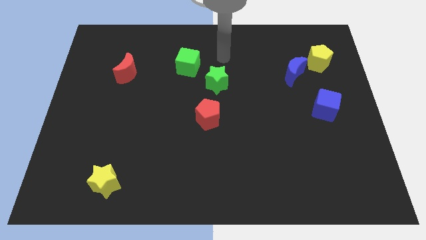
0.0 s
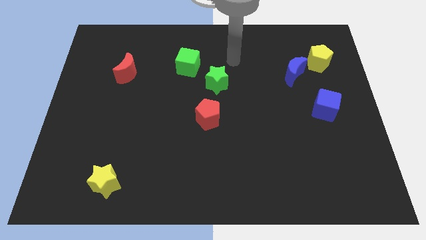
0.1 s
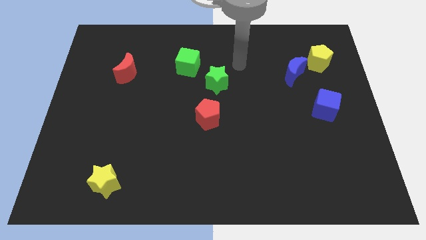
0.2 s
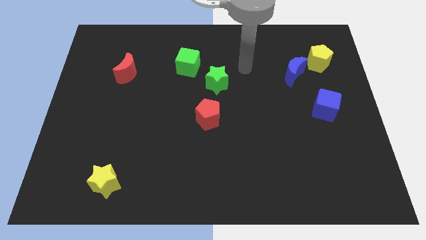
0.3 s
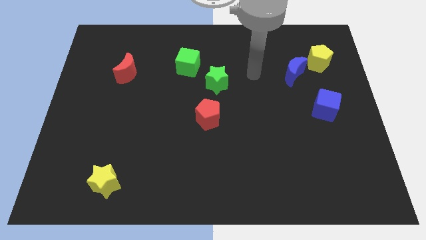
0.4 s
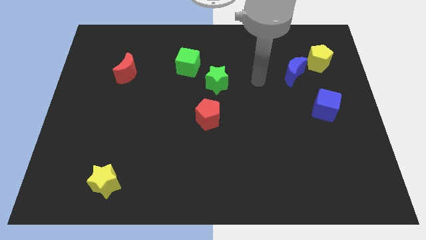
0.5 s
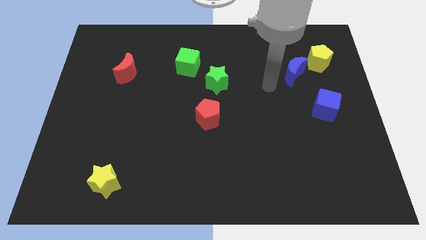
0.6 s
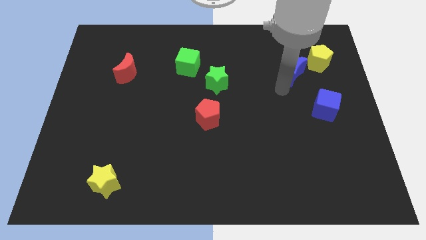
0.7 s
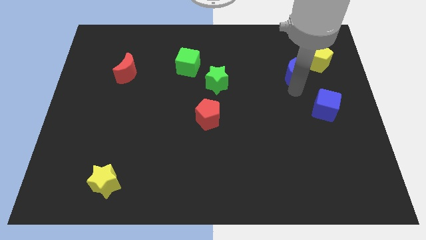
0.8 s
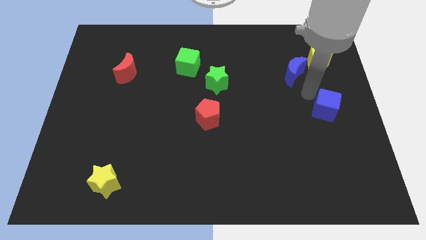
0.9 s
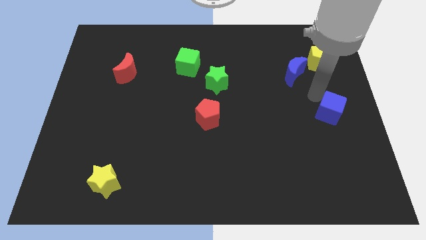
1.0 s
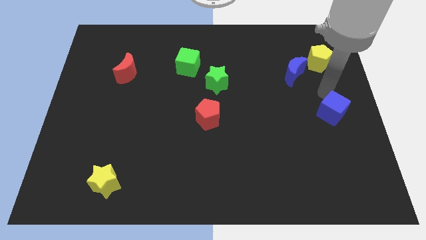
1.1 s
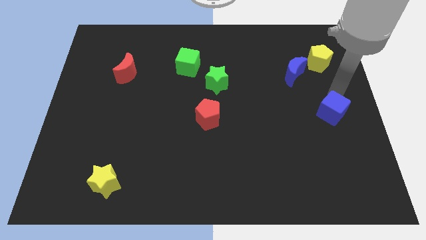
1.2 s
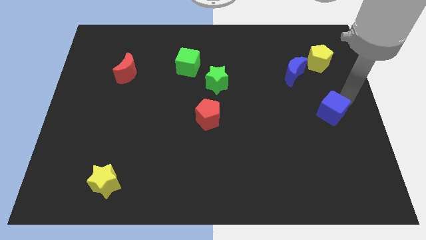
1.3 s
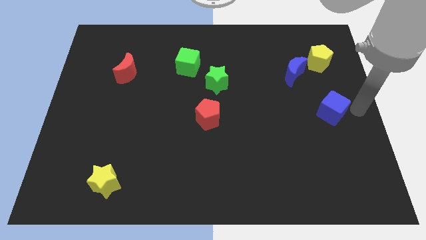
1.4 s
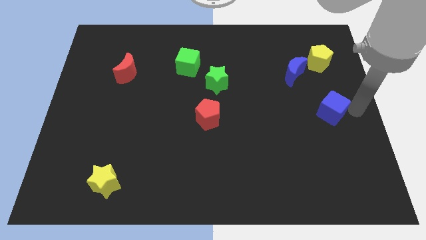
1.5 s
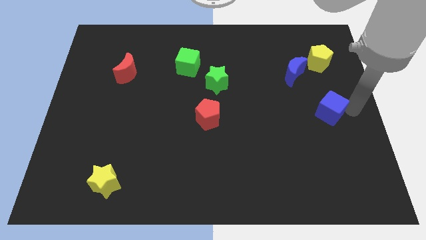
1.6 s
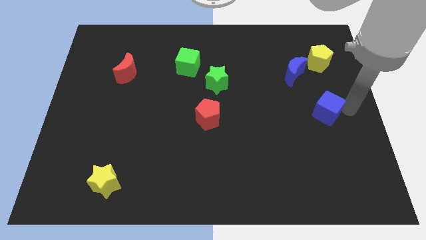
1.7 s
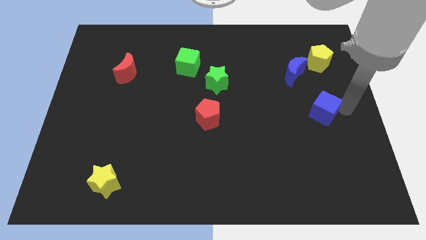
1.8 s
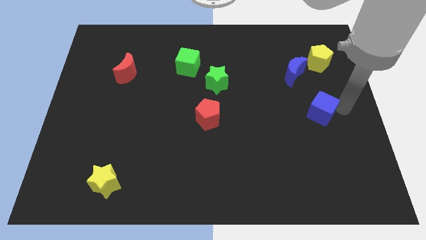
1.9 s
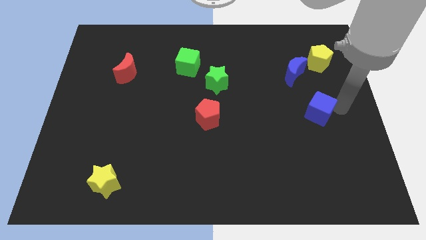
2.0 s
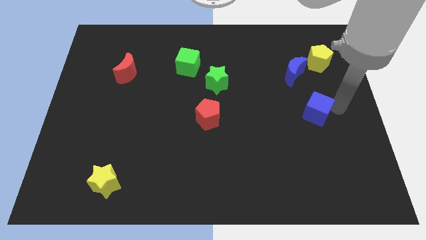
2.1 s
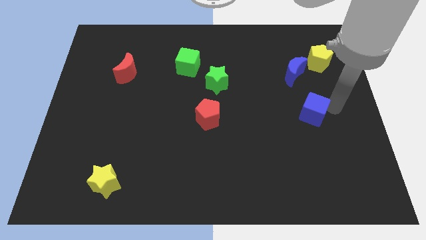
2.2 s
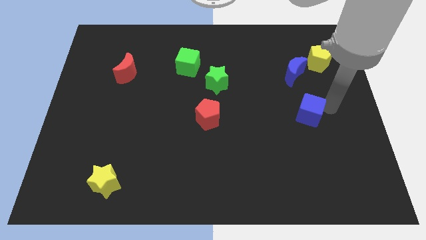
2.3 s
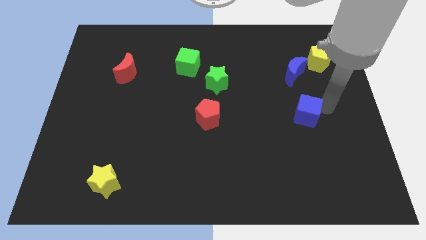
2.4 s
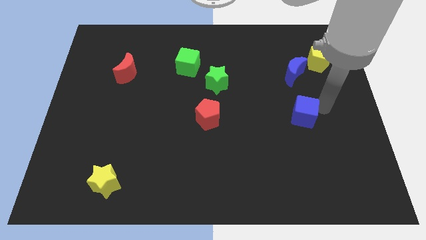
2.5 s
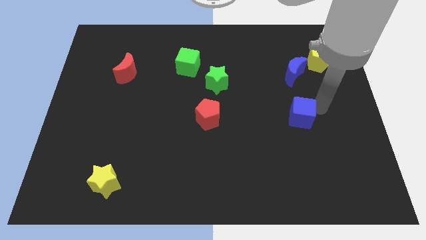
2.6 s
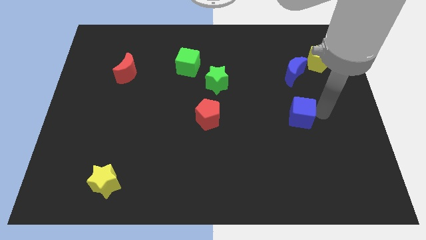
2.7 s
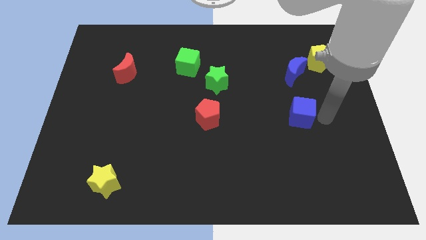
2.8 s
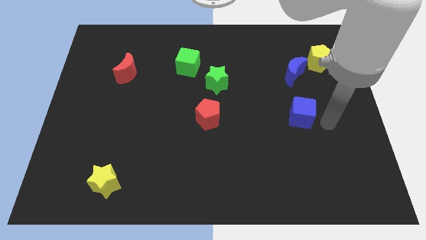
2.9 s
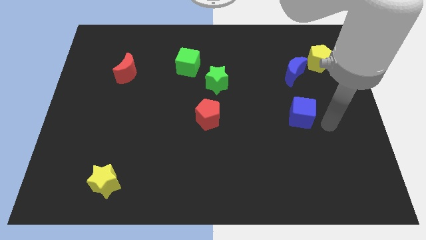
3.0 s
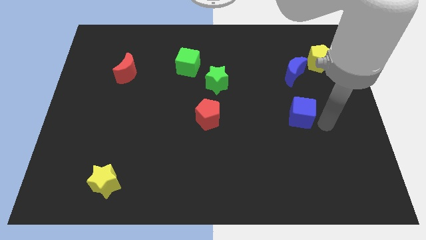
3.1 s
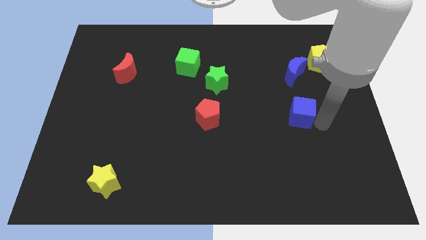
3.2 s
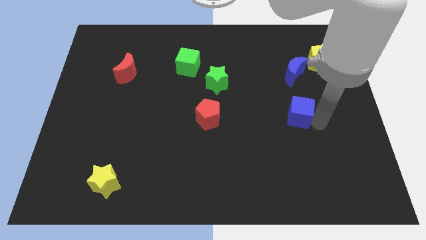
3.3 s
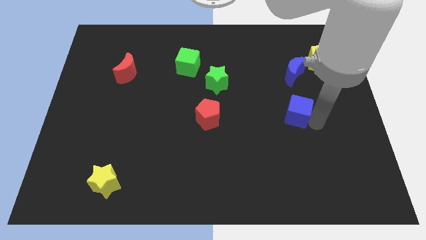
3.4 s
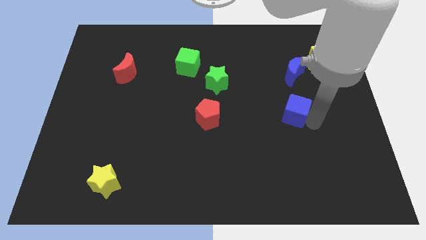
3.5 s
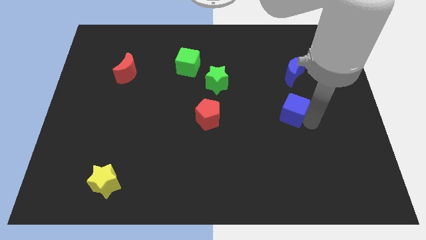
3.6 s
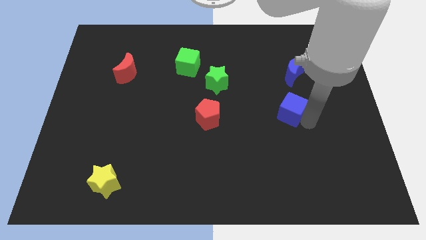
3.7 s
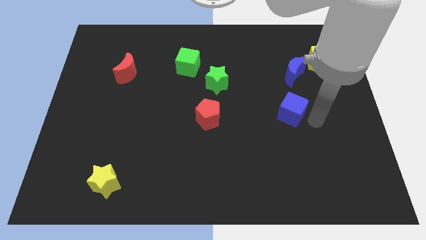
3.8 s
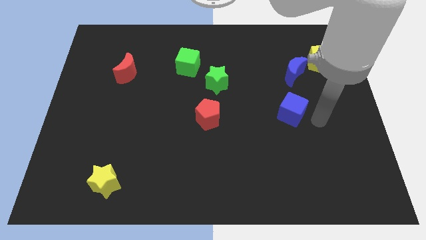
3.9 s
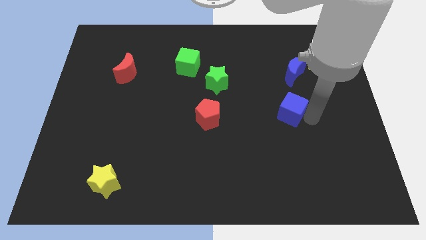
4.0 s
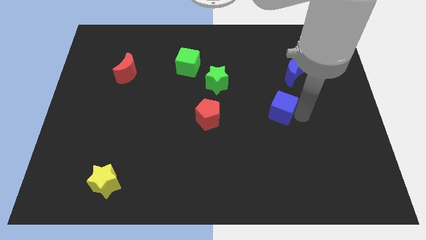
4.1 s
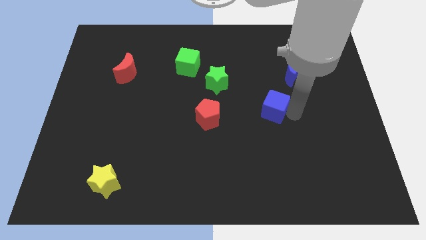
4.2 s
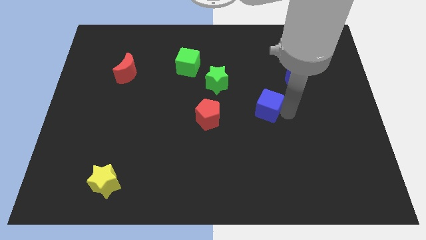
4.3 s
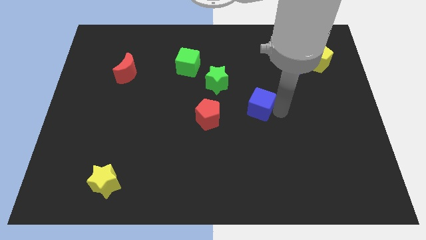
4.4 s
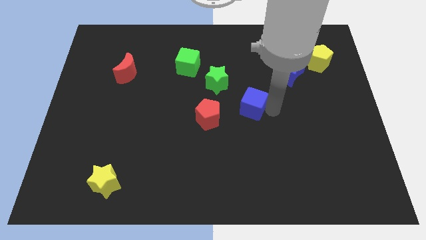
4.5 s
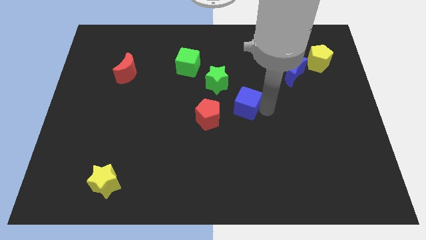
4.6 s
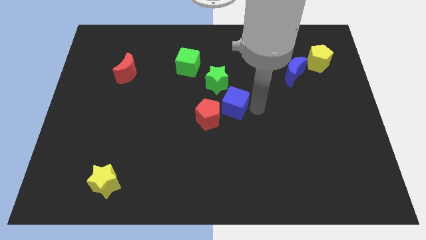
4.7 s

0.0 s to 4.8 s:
push the blue cube left

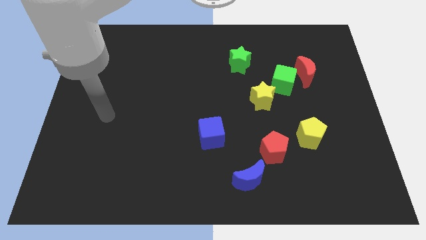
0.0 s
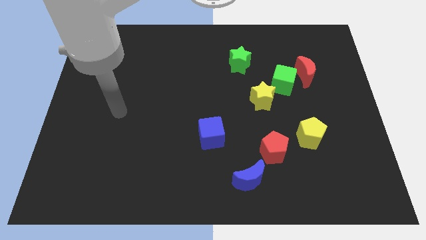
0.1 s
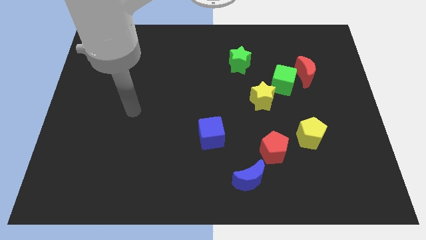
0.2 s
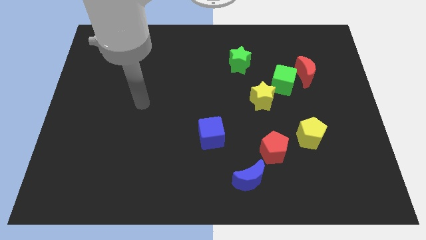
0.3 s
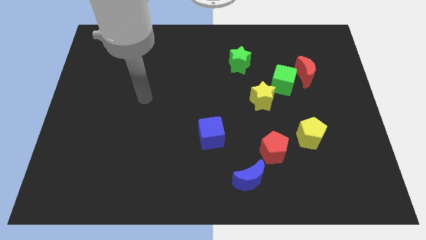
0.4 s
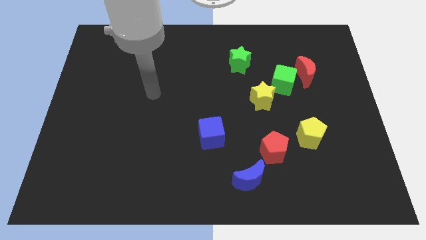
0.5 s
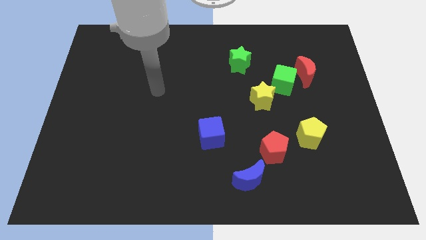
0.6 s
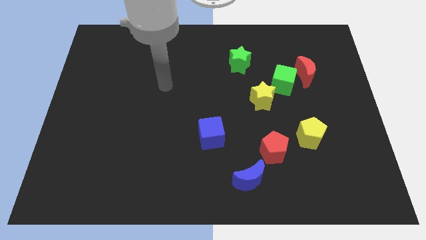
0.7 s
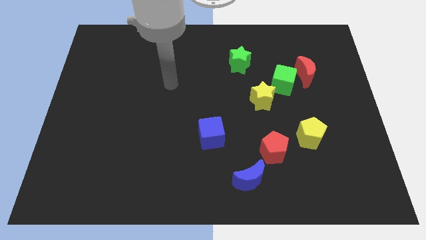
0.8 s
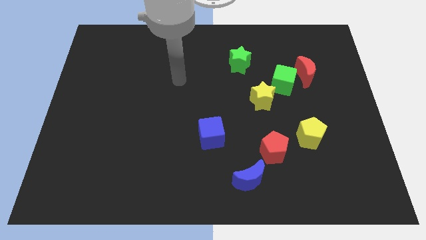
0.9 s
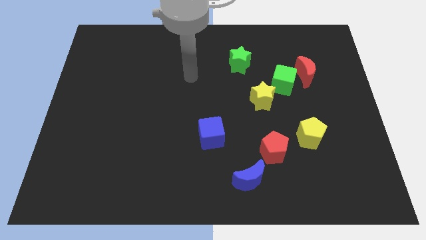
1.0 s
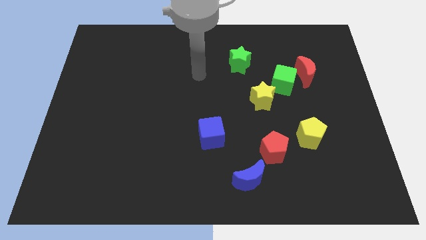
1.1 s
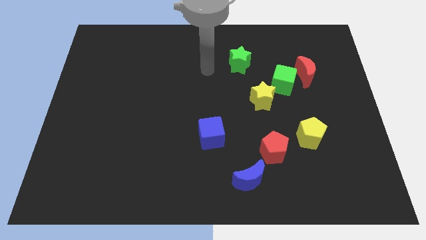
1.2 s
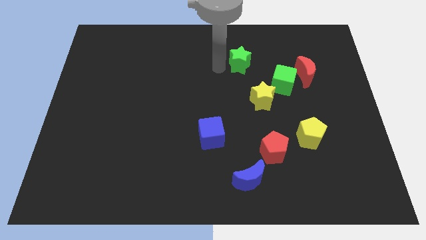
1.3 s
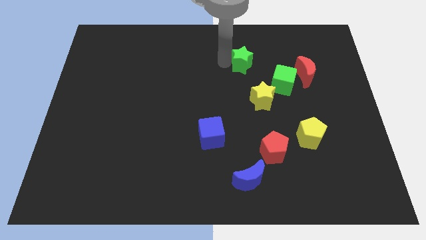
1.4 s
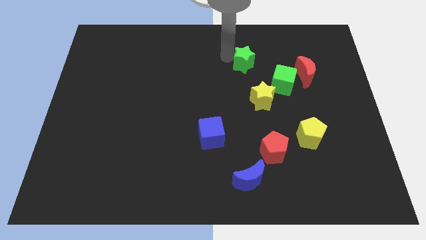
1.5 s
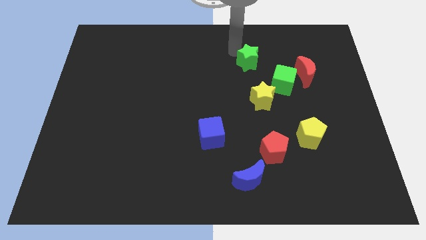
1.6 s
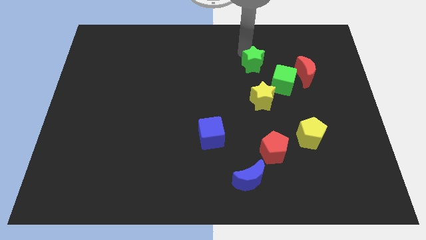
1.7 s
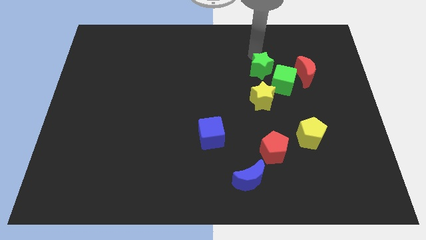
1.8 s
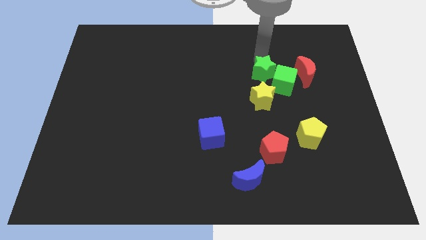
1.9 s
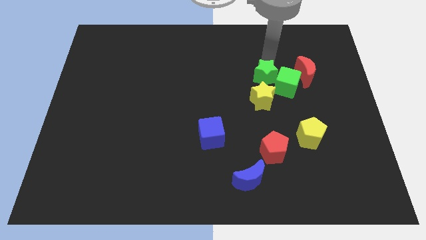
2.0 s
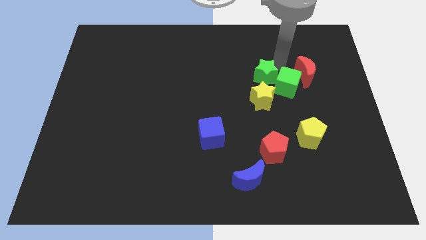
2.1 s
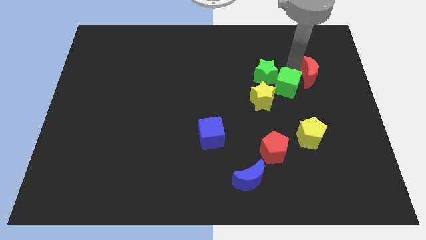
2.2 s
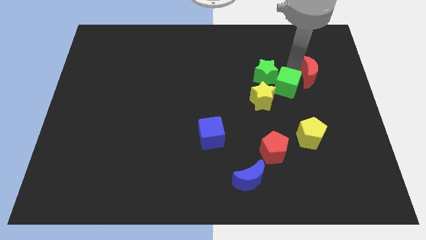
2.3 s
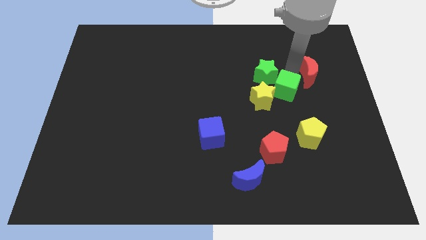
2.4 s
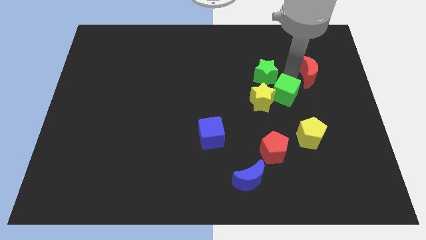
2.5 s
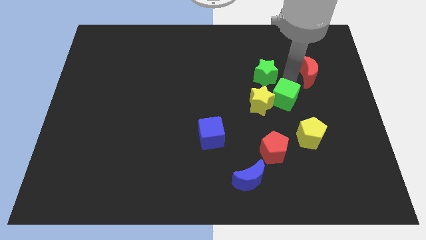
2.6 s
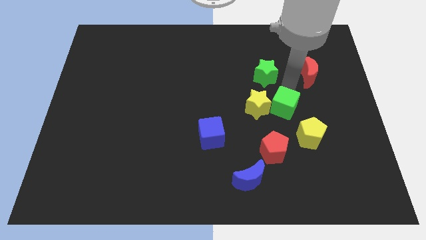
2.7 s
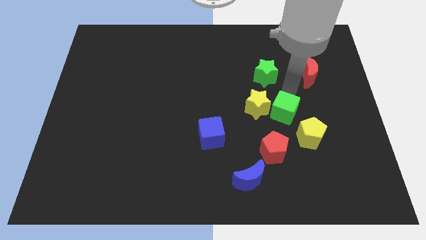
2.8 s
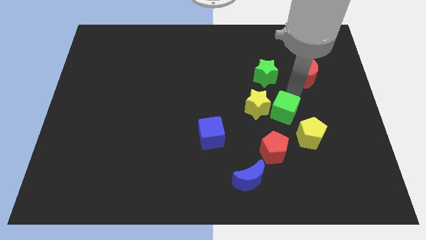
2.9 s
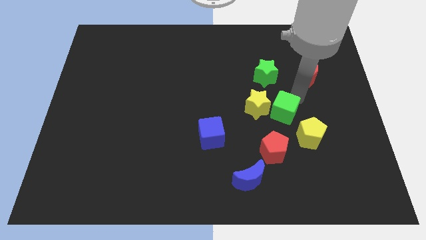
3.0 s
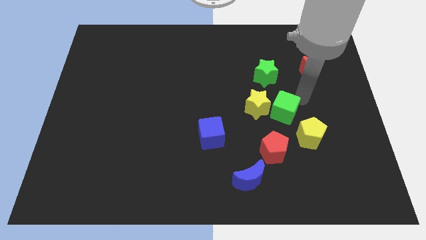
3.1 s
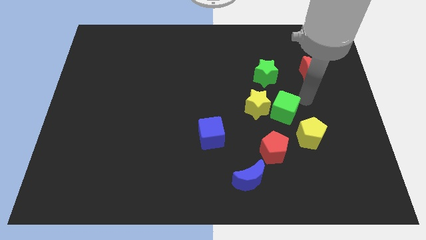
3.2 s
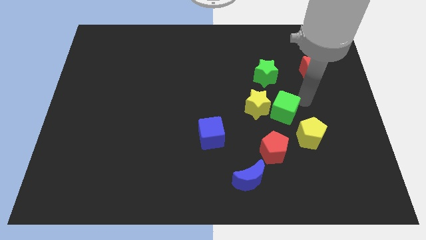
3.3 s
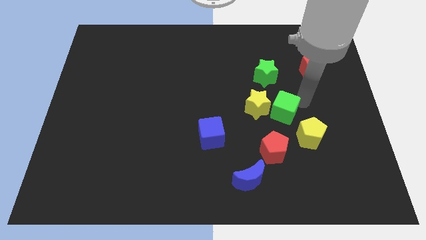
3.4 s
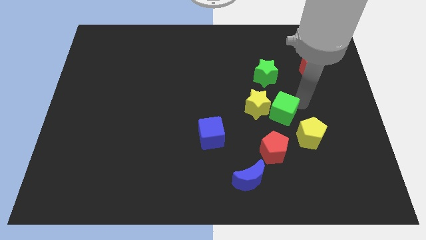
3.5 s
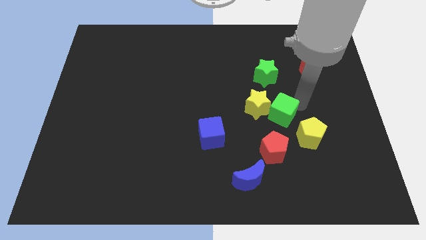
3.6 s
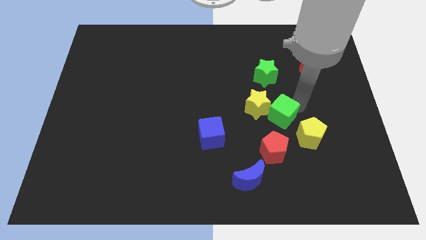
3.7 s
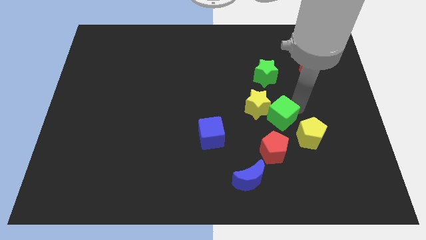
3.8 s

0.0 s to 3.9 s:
push the green cube a little downwards and then to the left
